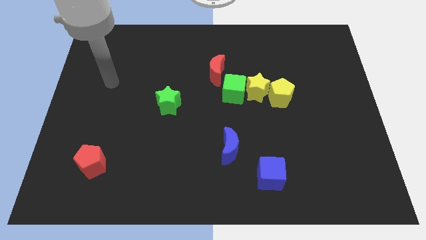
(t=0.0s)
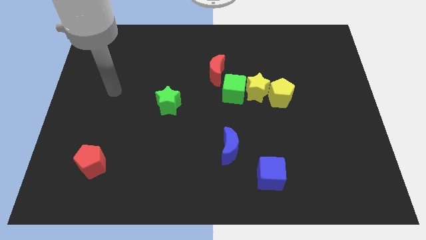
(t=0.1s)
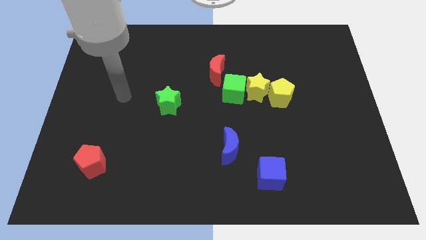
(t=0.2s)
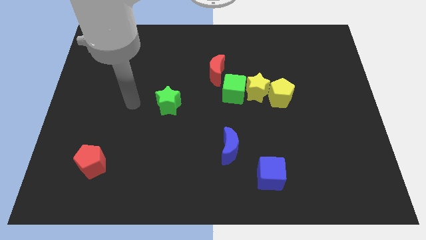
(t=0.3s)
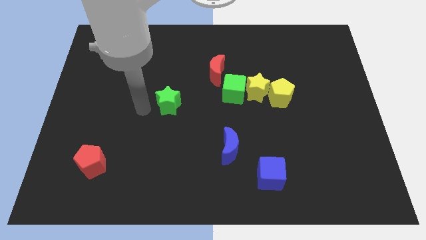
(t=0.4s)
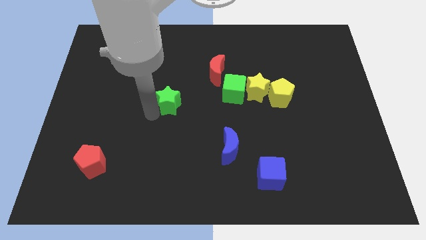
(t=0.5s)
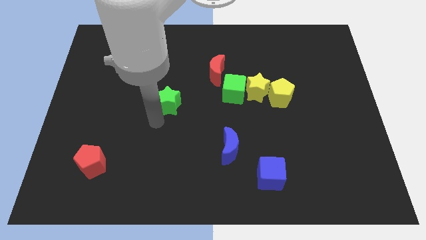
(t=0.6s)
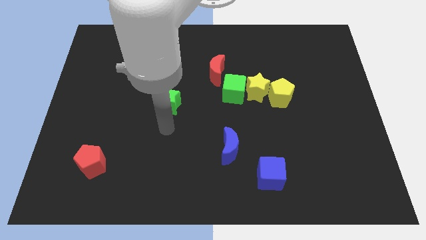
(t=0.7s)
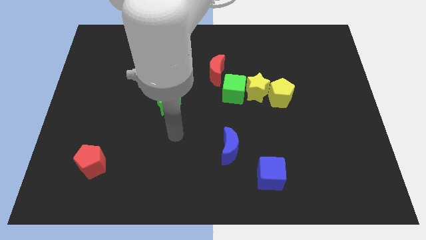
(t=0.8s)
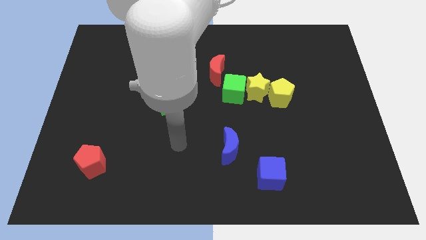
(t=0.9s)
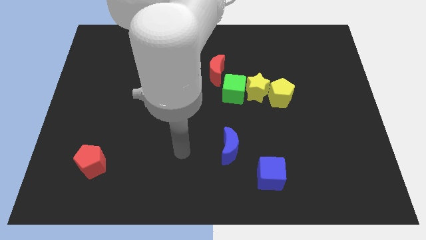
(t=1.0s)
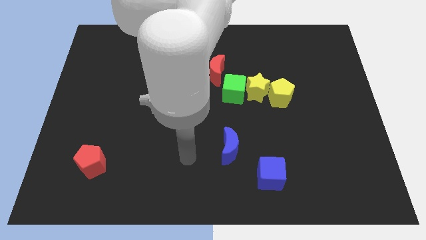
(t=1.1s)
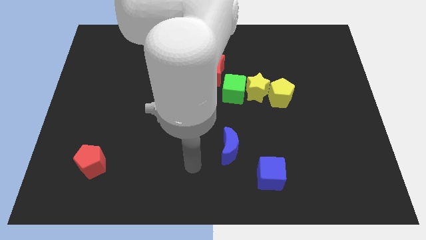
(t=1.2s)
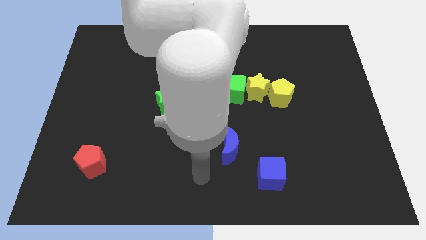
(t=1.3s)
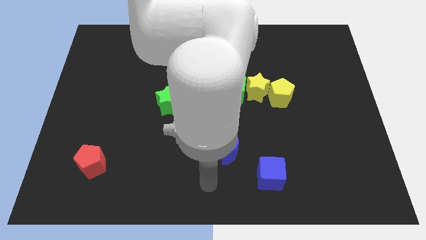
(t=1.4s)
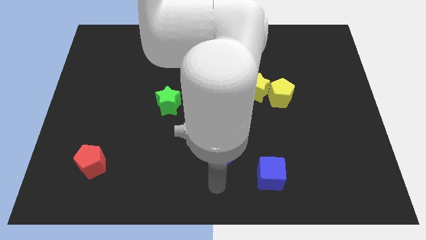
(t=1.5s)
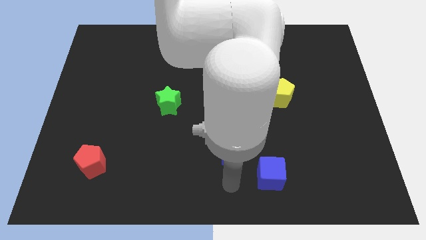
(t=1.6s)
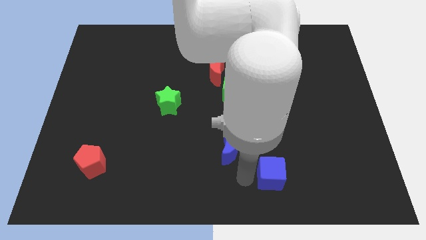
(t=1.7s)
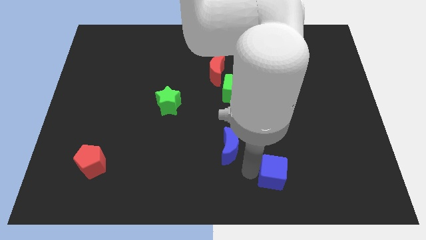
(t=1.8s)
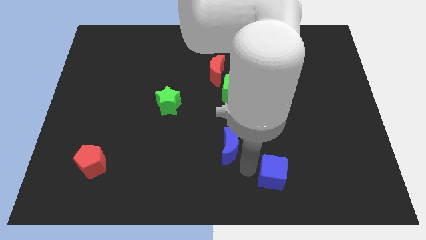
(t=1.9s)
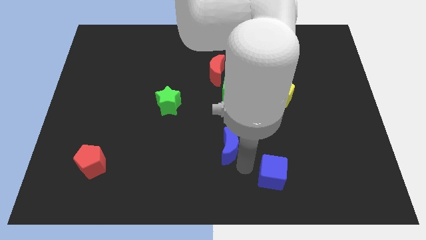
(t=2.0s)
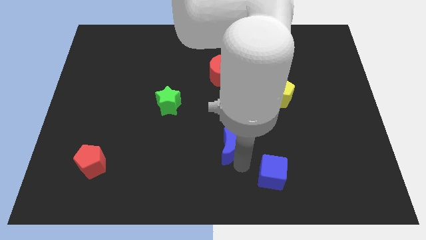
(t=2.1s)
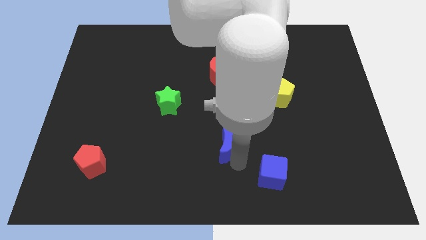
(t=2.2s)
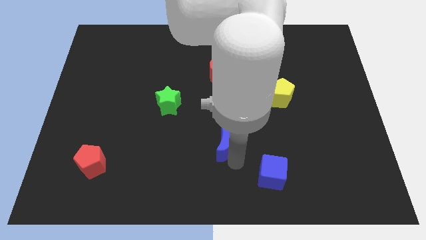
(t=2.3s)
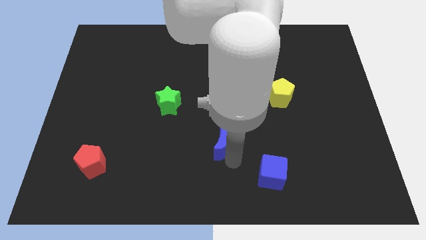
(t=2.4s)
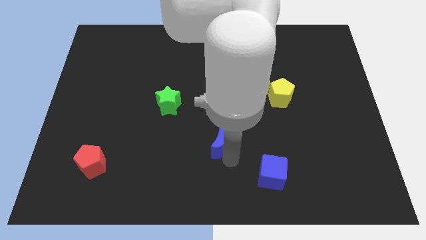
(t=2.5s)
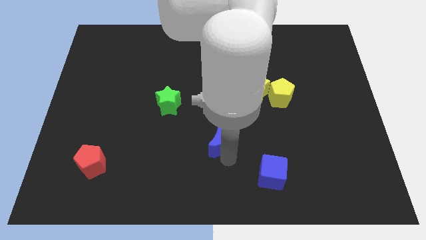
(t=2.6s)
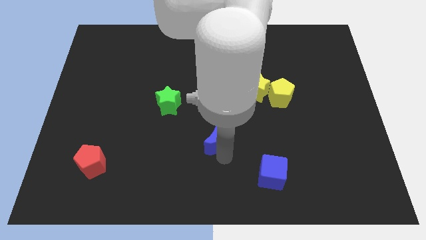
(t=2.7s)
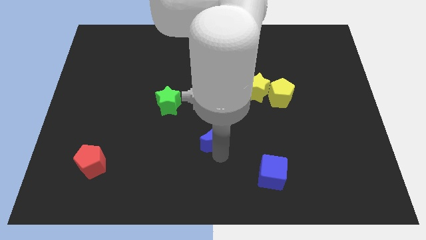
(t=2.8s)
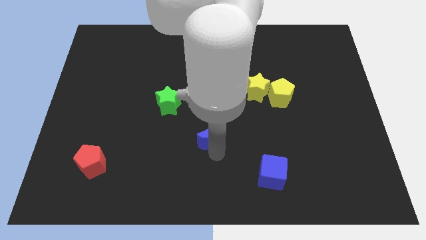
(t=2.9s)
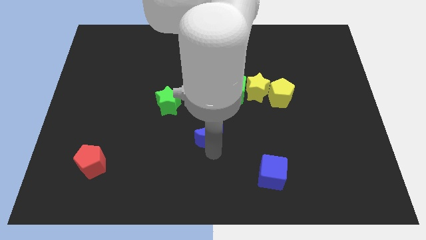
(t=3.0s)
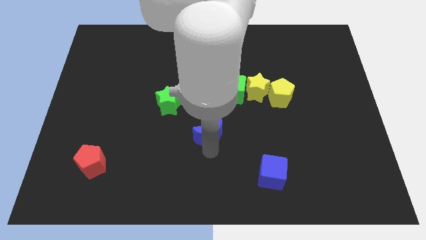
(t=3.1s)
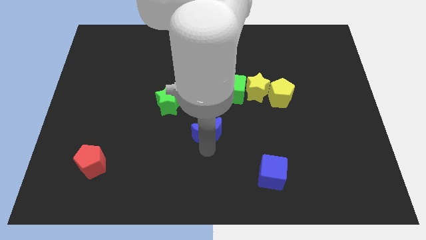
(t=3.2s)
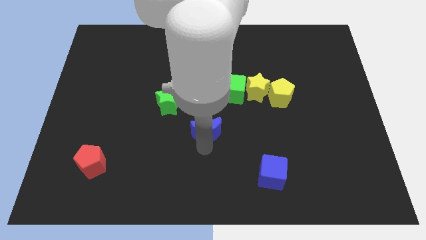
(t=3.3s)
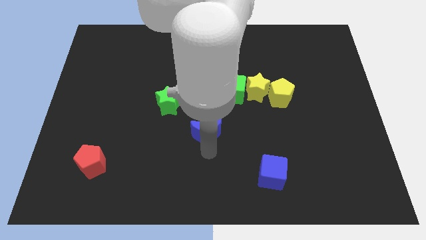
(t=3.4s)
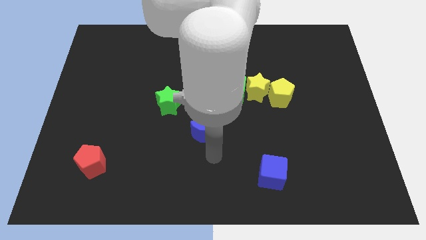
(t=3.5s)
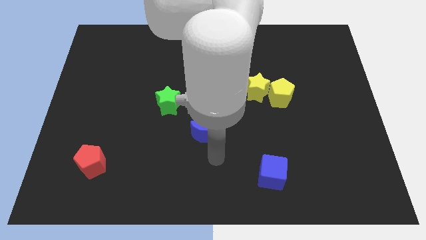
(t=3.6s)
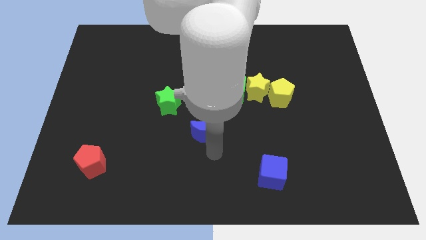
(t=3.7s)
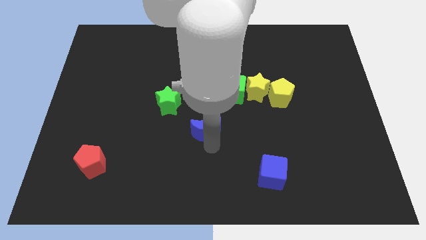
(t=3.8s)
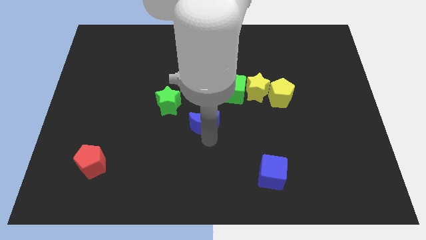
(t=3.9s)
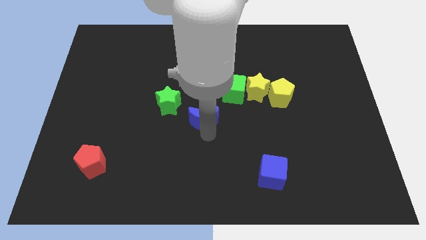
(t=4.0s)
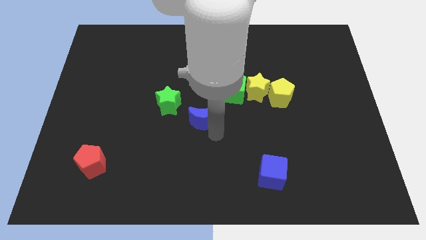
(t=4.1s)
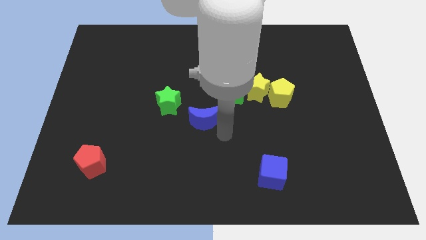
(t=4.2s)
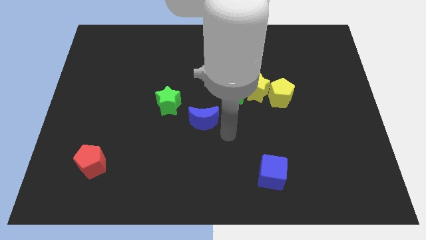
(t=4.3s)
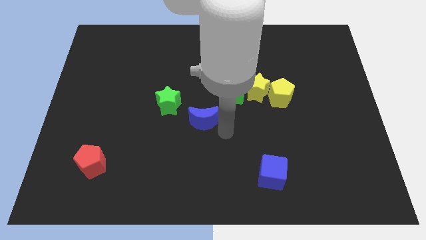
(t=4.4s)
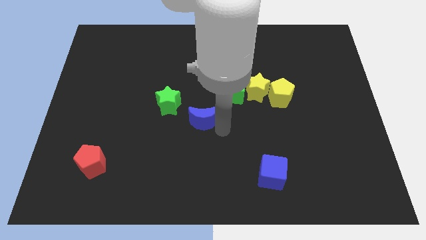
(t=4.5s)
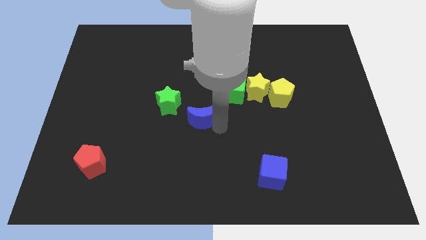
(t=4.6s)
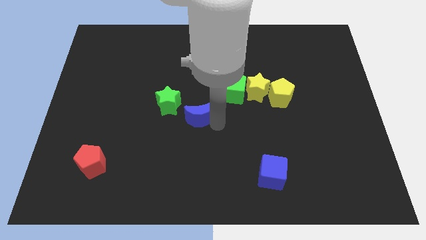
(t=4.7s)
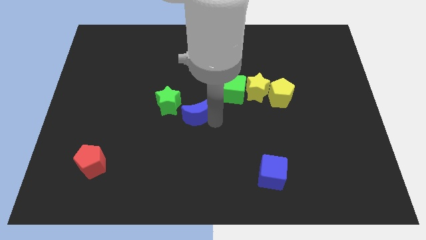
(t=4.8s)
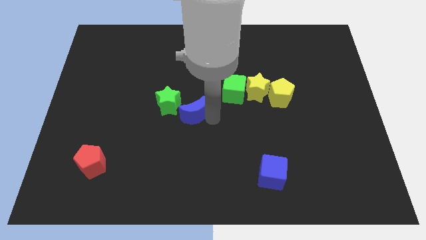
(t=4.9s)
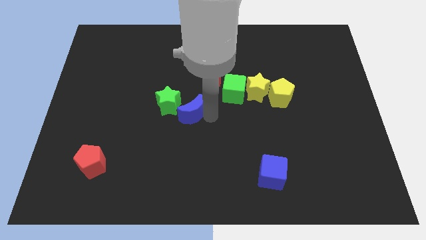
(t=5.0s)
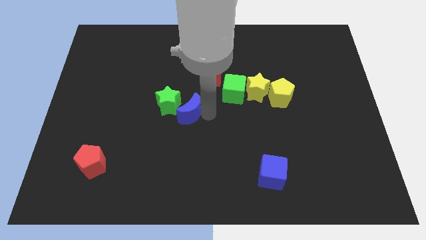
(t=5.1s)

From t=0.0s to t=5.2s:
push the blue moon next to the green star

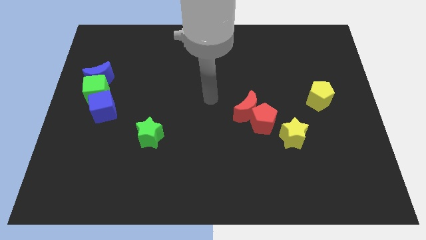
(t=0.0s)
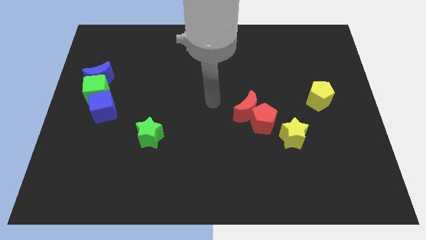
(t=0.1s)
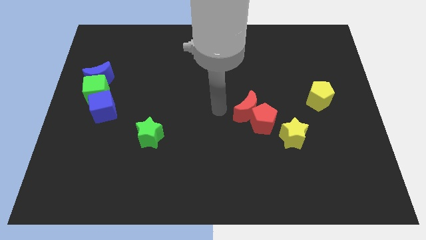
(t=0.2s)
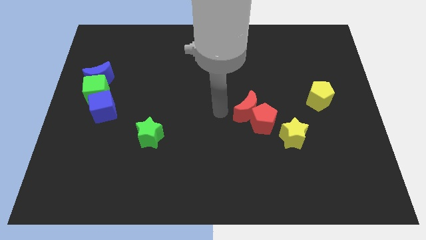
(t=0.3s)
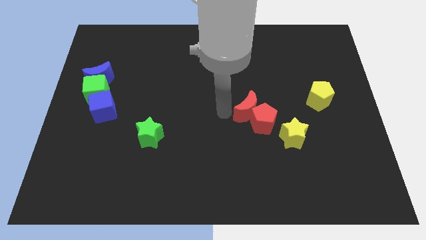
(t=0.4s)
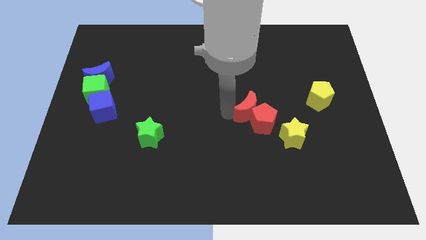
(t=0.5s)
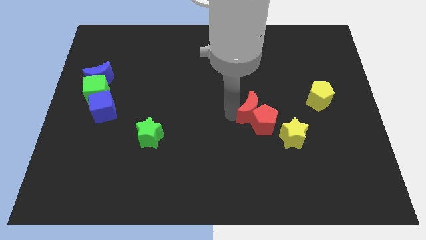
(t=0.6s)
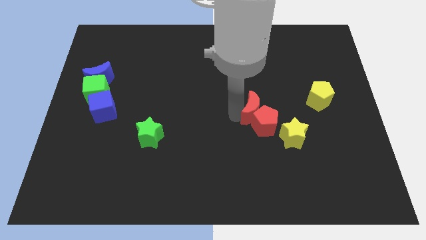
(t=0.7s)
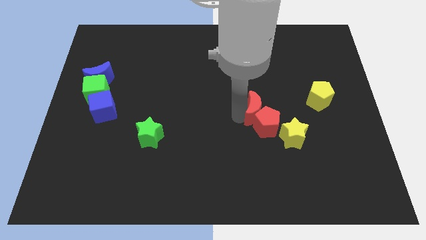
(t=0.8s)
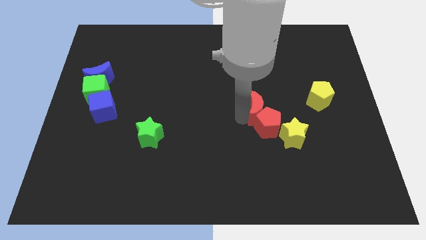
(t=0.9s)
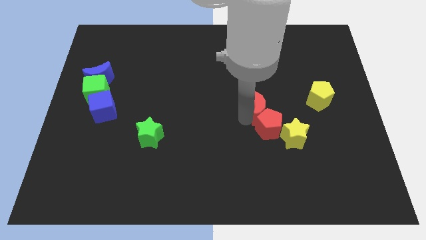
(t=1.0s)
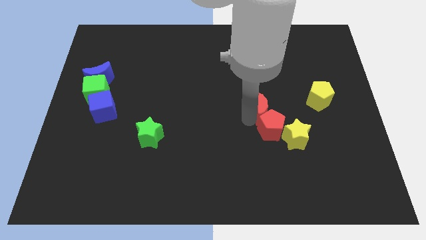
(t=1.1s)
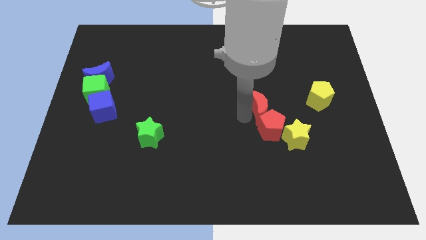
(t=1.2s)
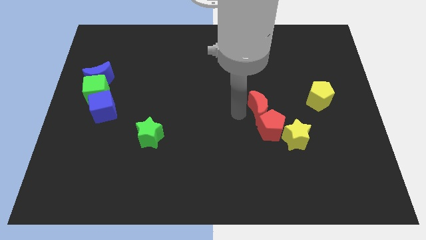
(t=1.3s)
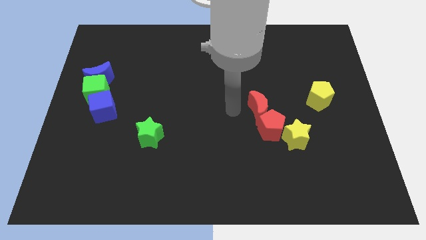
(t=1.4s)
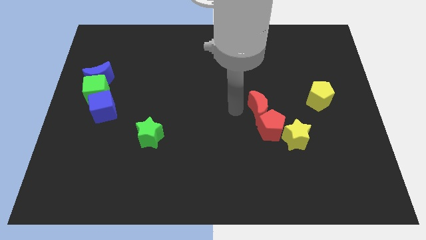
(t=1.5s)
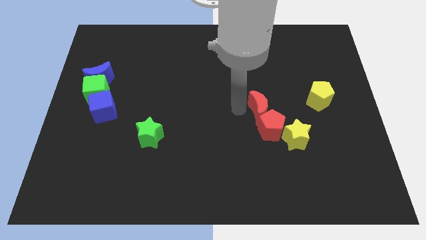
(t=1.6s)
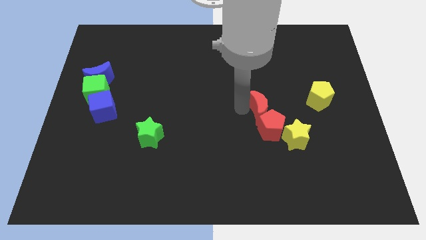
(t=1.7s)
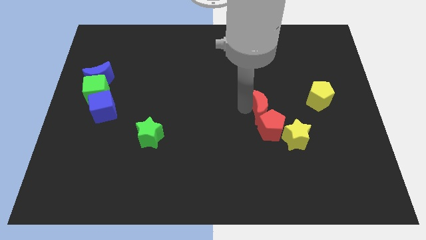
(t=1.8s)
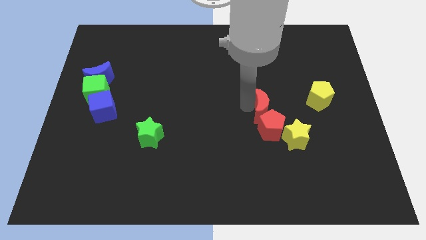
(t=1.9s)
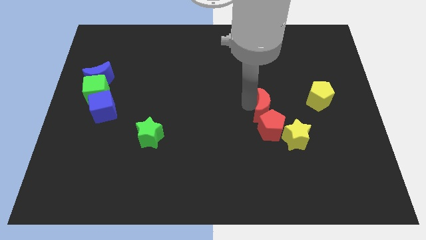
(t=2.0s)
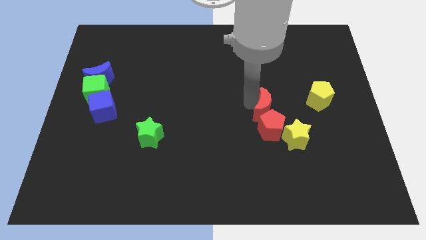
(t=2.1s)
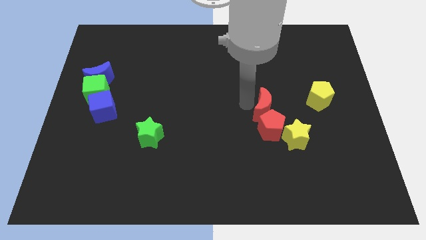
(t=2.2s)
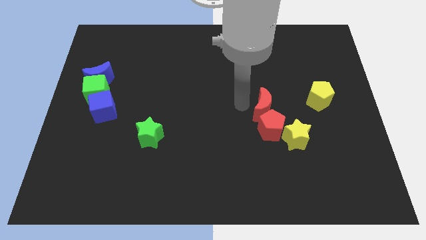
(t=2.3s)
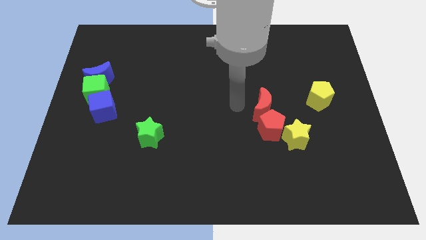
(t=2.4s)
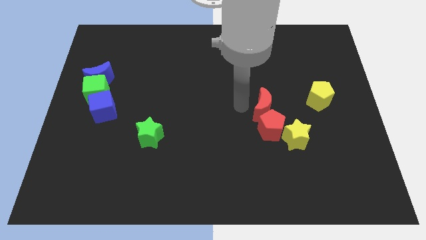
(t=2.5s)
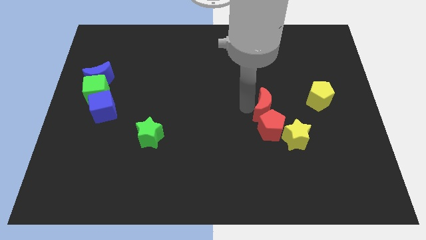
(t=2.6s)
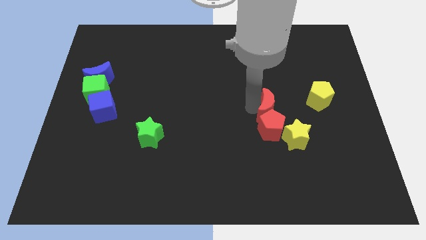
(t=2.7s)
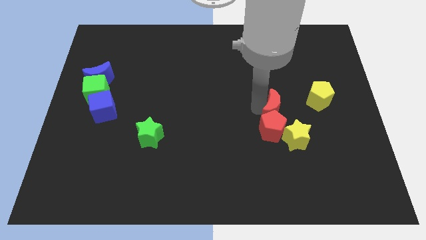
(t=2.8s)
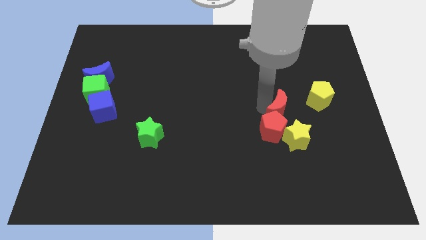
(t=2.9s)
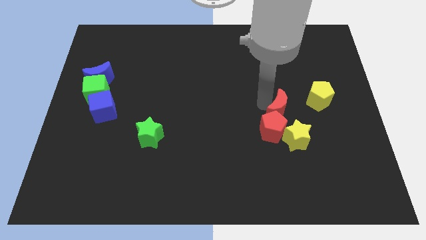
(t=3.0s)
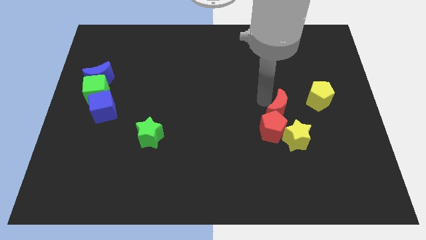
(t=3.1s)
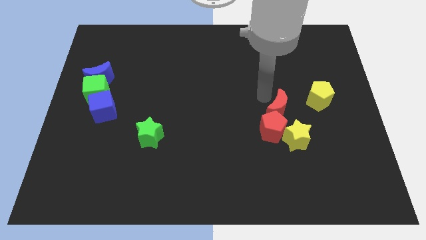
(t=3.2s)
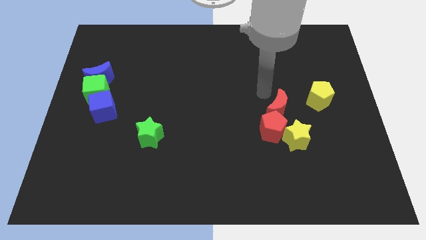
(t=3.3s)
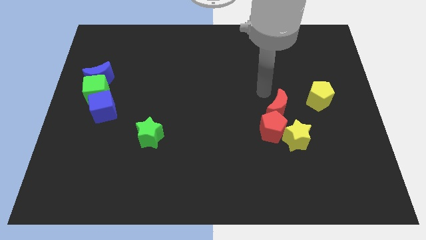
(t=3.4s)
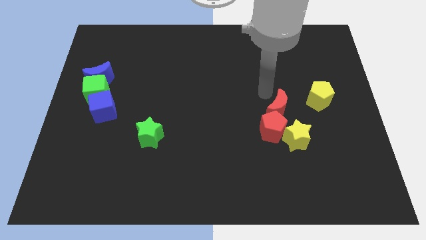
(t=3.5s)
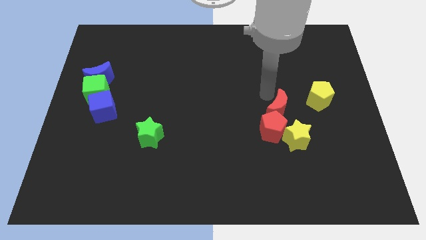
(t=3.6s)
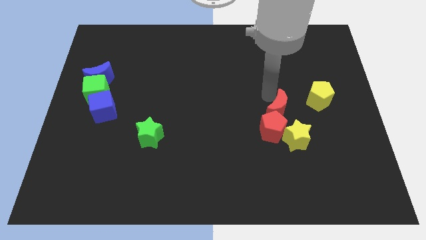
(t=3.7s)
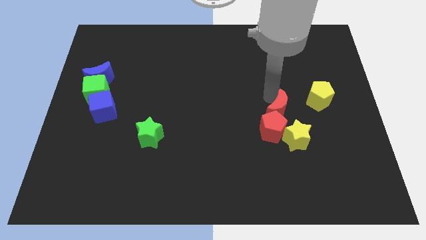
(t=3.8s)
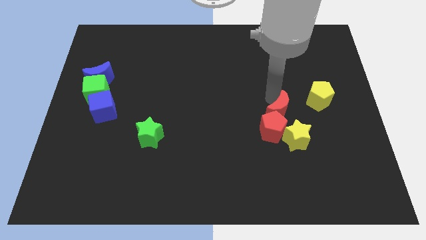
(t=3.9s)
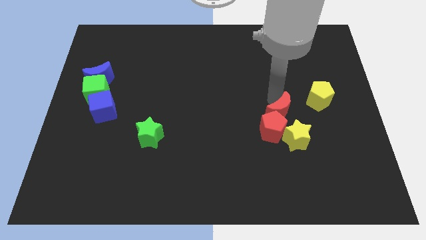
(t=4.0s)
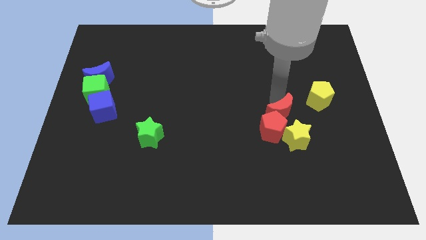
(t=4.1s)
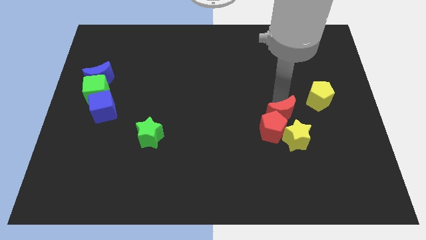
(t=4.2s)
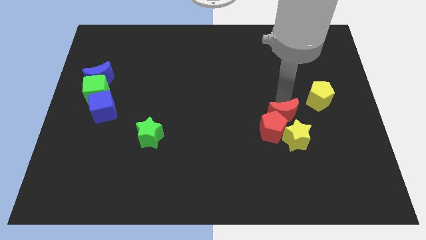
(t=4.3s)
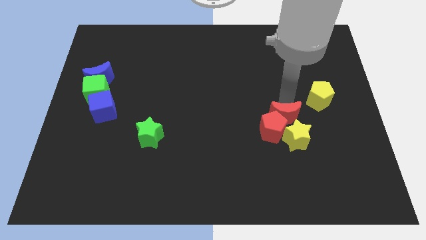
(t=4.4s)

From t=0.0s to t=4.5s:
move the red moon to the yellow star
